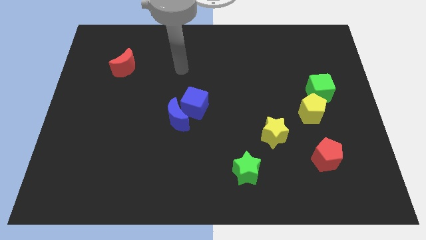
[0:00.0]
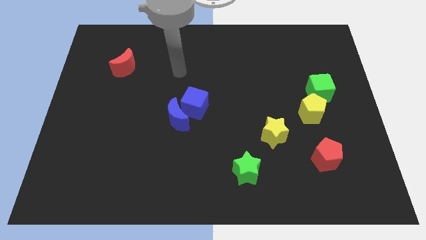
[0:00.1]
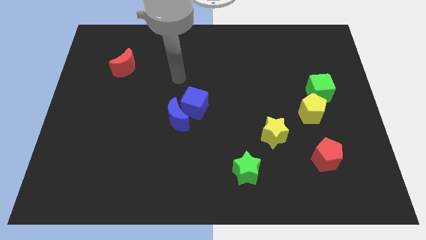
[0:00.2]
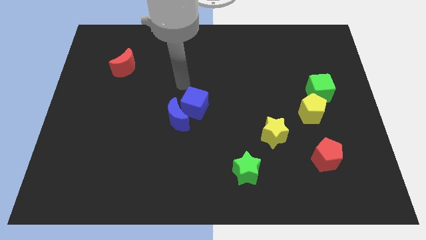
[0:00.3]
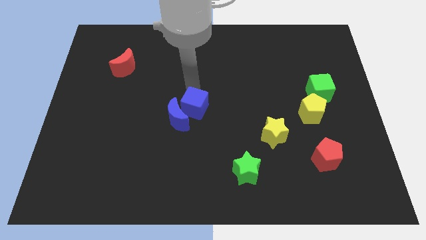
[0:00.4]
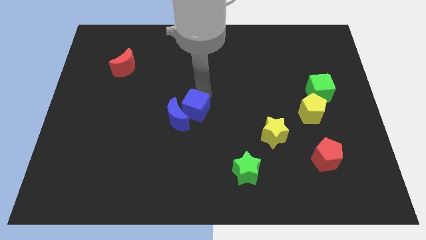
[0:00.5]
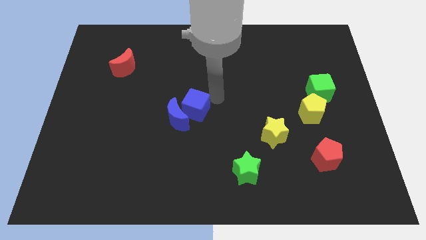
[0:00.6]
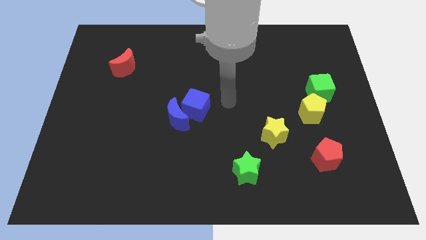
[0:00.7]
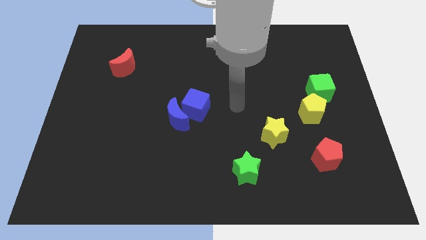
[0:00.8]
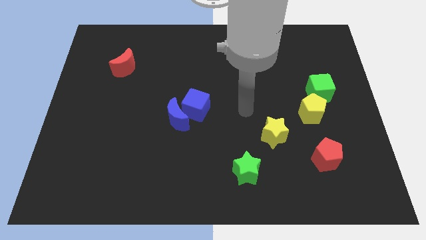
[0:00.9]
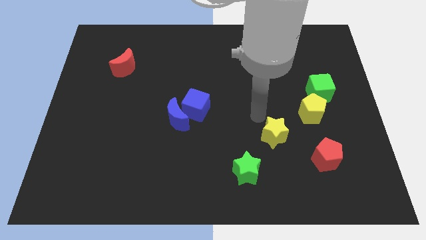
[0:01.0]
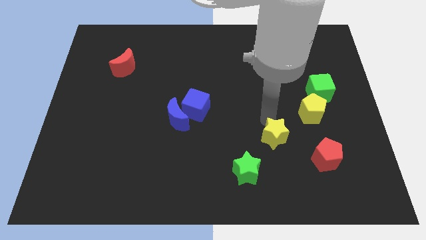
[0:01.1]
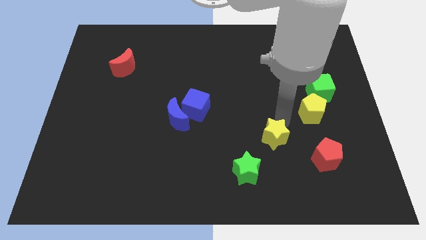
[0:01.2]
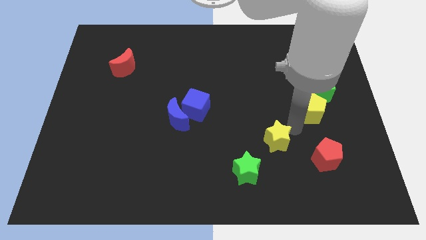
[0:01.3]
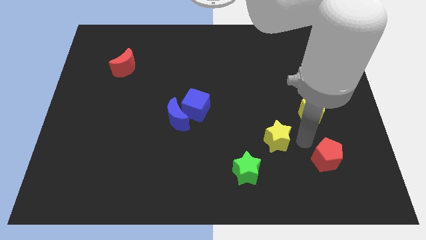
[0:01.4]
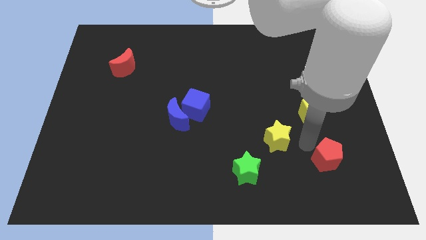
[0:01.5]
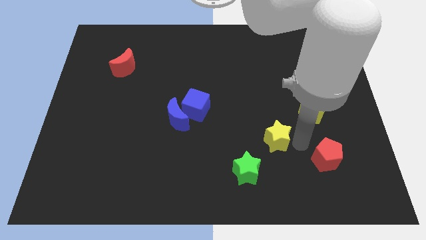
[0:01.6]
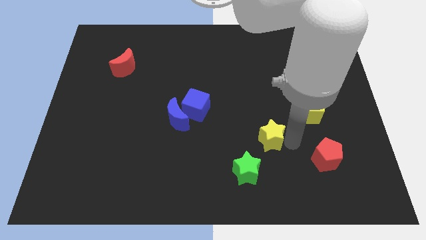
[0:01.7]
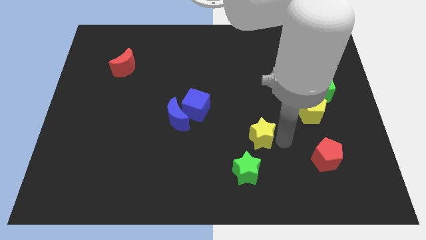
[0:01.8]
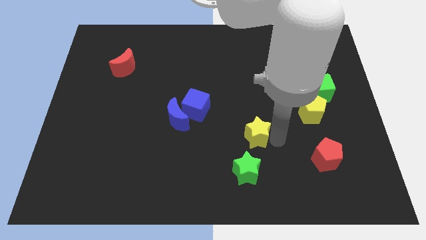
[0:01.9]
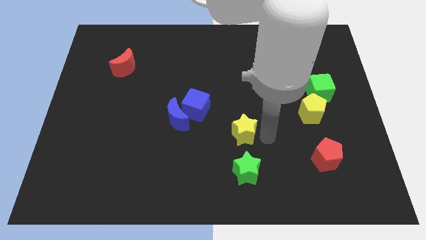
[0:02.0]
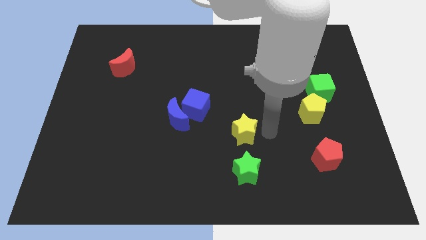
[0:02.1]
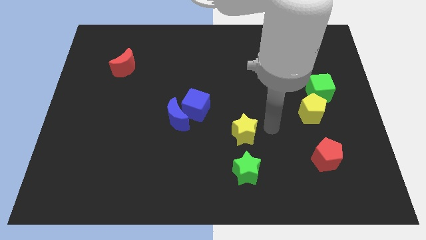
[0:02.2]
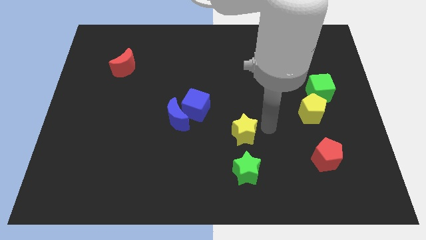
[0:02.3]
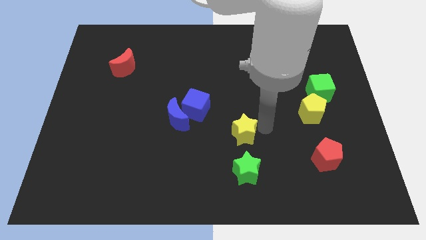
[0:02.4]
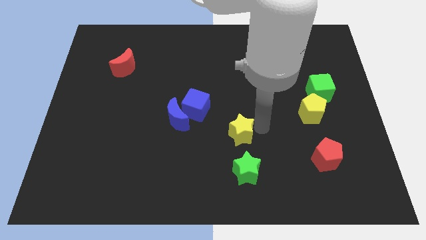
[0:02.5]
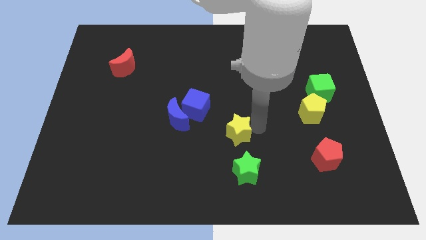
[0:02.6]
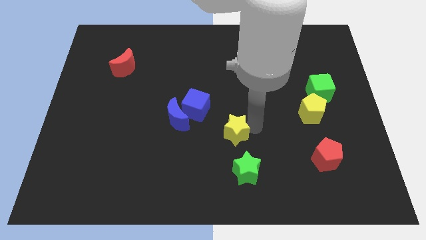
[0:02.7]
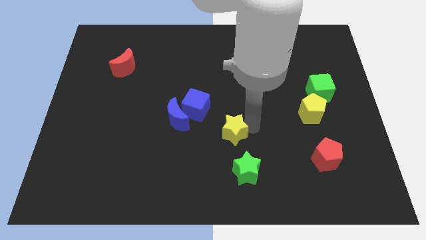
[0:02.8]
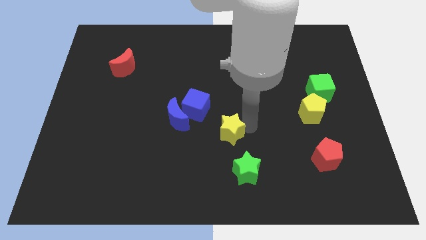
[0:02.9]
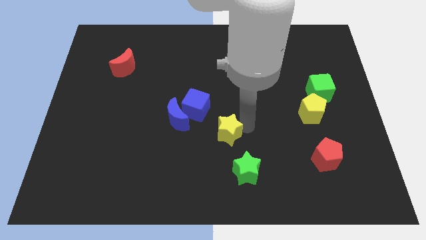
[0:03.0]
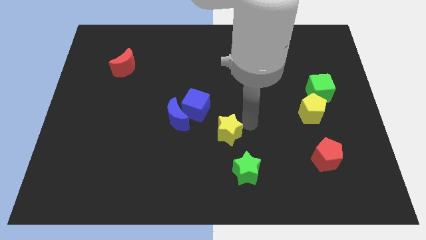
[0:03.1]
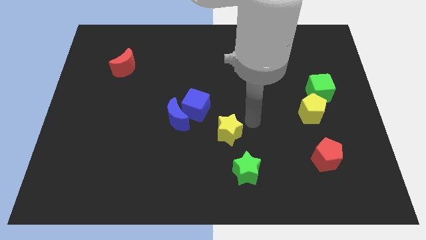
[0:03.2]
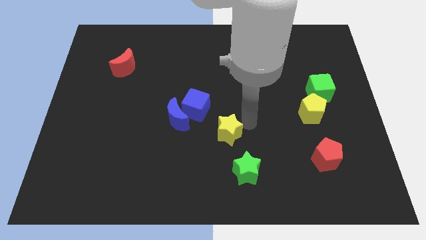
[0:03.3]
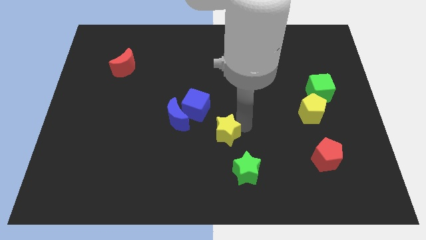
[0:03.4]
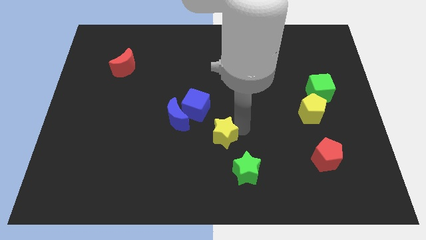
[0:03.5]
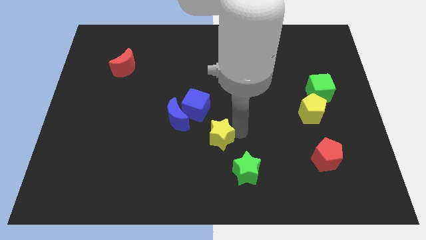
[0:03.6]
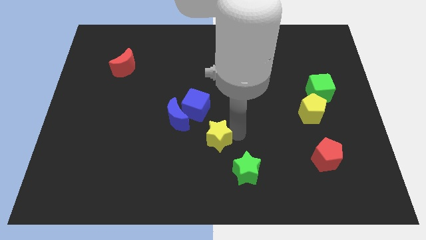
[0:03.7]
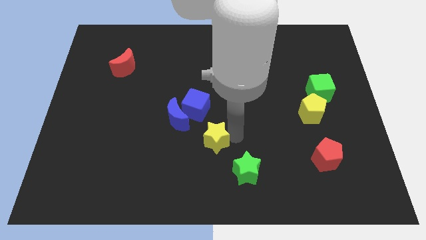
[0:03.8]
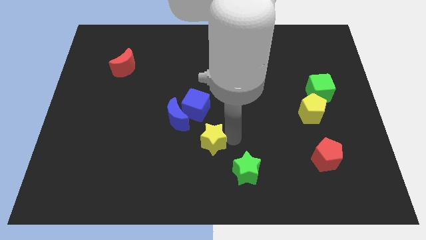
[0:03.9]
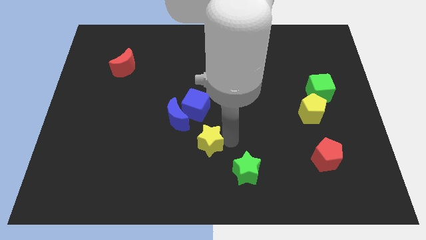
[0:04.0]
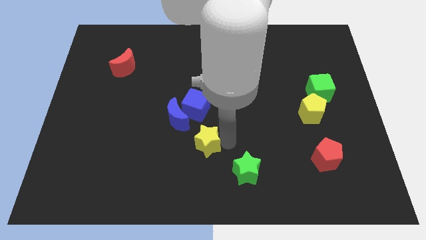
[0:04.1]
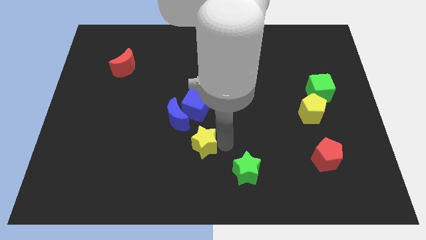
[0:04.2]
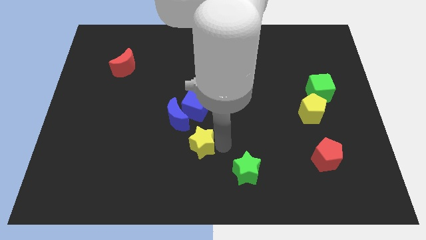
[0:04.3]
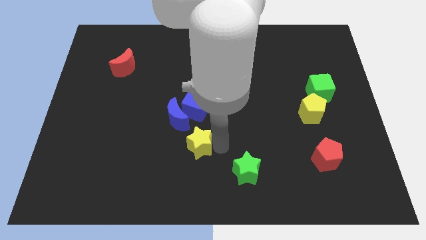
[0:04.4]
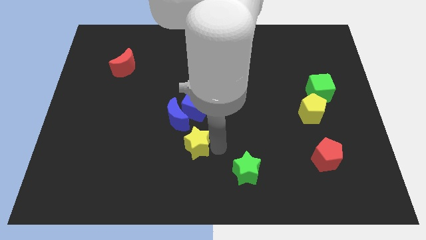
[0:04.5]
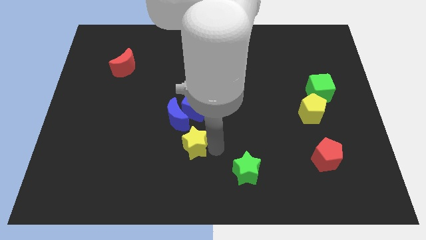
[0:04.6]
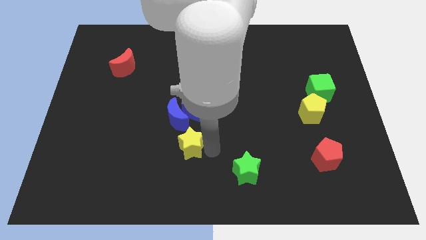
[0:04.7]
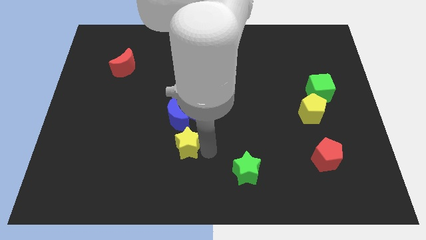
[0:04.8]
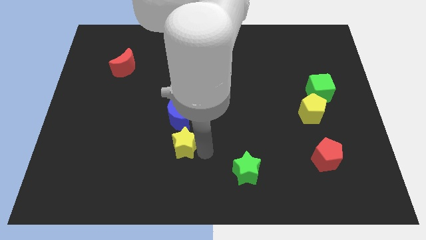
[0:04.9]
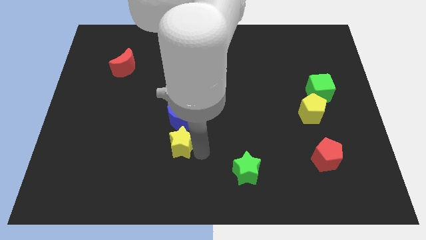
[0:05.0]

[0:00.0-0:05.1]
move the yellow star left

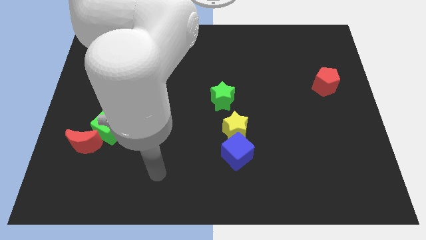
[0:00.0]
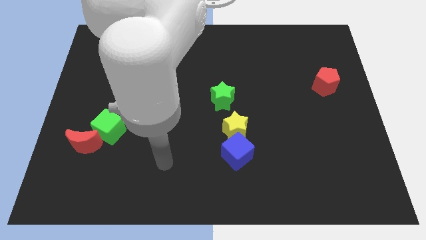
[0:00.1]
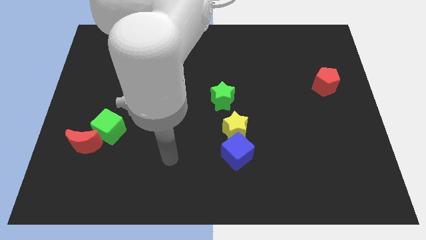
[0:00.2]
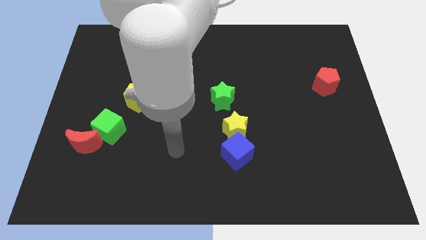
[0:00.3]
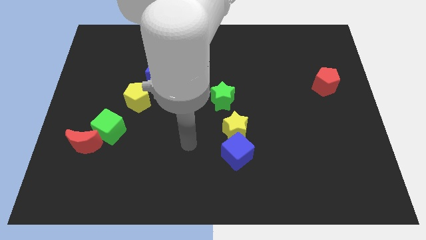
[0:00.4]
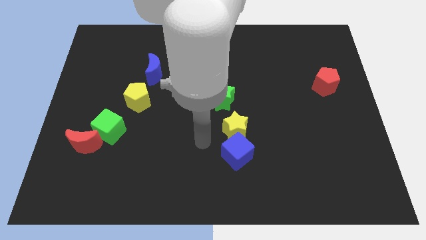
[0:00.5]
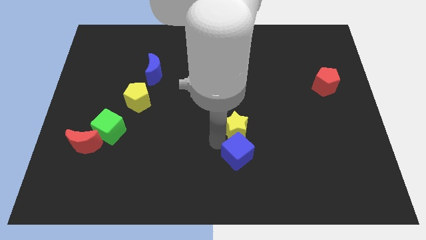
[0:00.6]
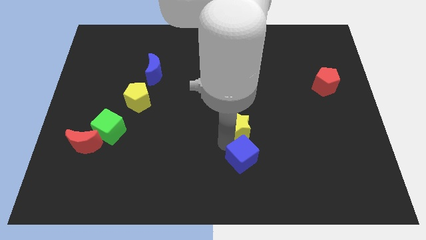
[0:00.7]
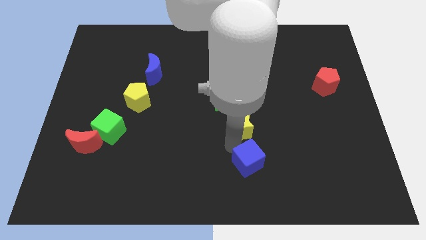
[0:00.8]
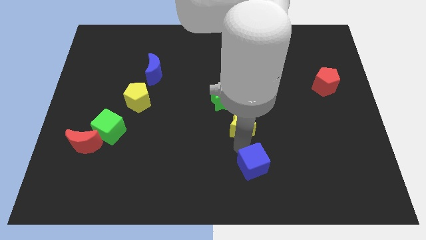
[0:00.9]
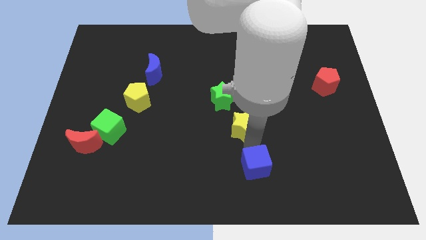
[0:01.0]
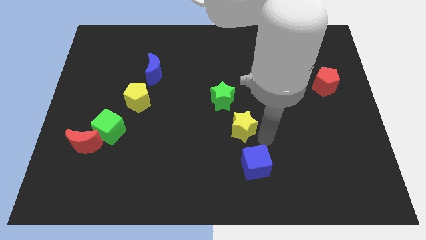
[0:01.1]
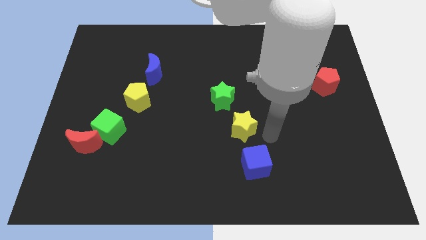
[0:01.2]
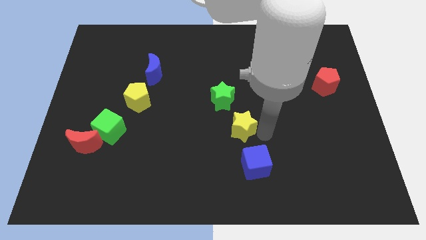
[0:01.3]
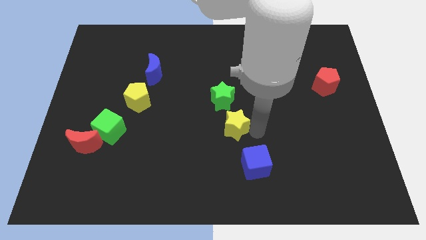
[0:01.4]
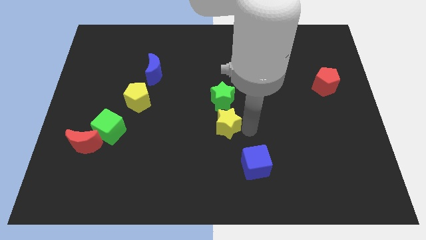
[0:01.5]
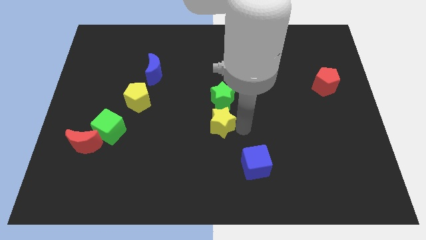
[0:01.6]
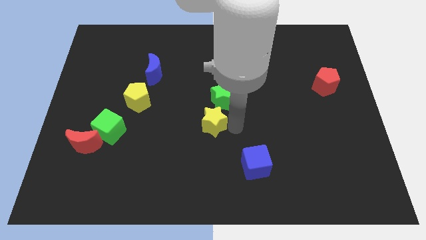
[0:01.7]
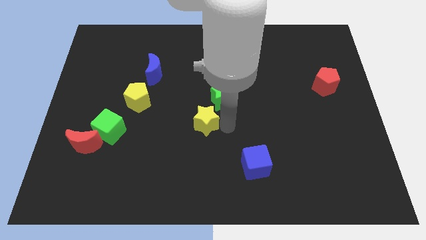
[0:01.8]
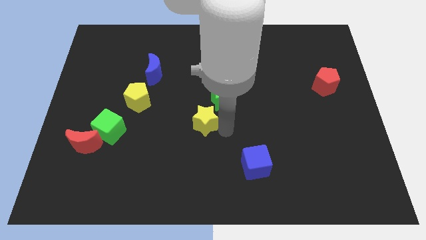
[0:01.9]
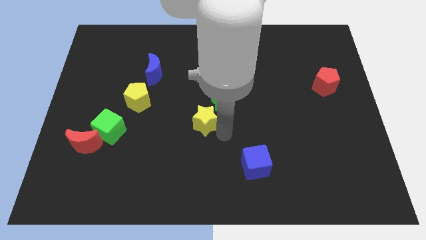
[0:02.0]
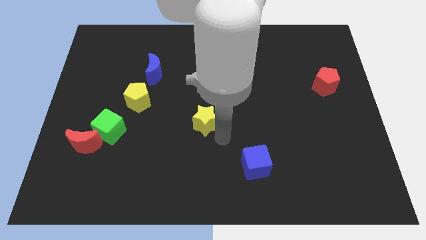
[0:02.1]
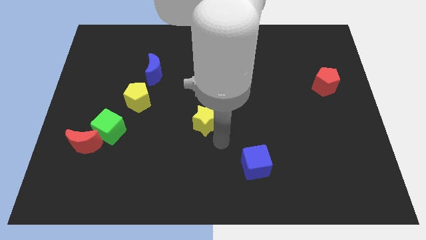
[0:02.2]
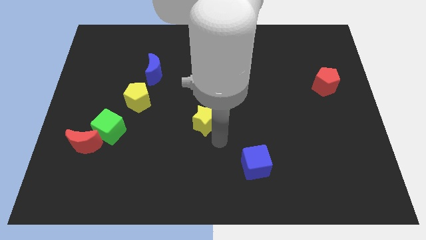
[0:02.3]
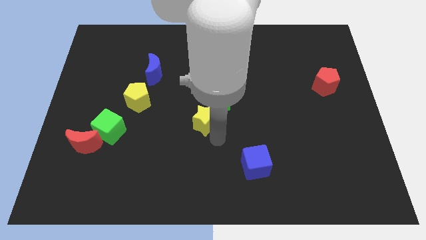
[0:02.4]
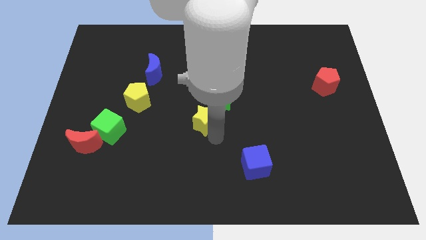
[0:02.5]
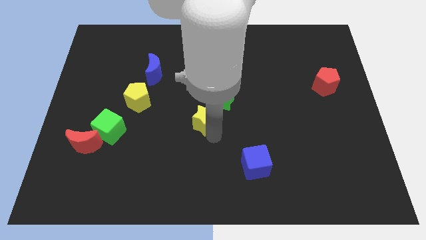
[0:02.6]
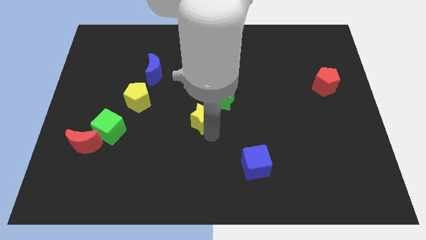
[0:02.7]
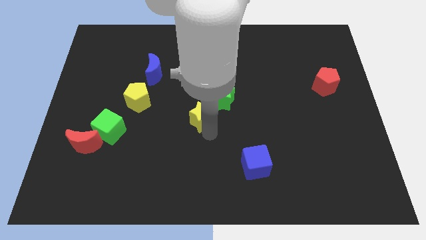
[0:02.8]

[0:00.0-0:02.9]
push the yellow star upwards and then to the left somewhat
